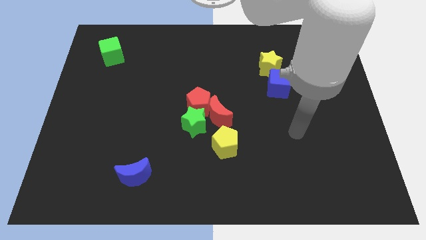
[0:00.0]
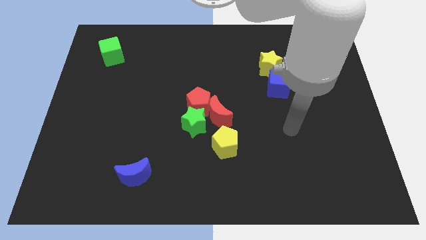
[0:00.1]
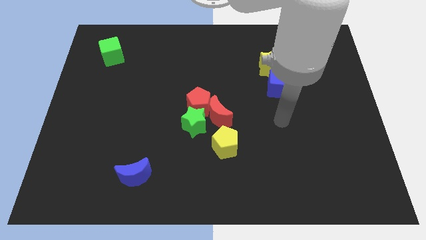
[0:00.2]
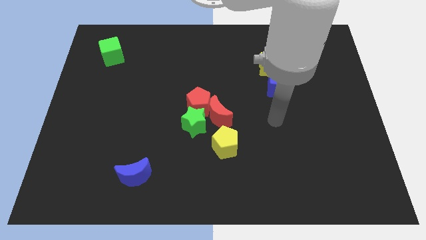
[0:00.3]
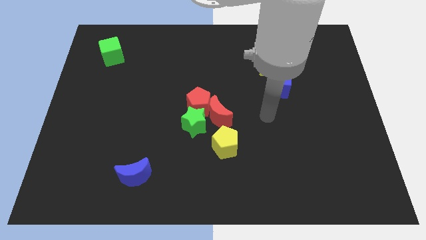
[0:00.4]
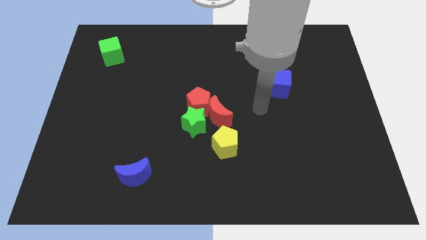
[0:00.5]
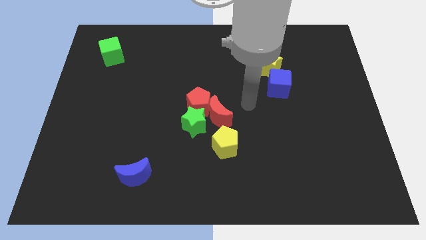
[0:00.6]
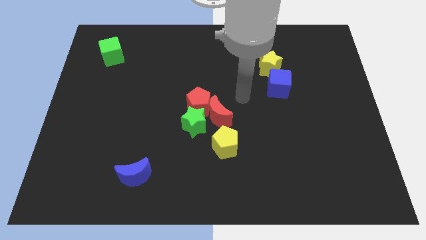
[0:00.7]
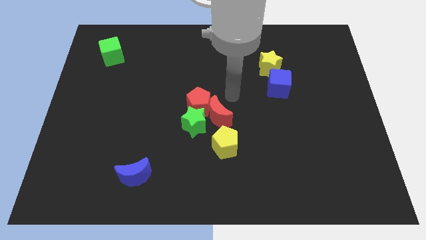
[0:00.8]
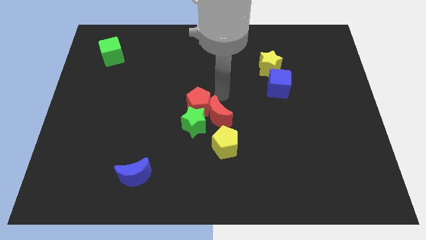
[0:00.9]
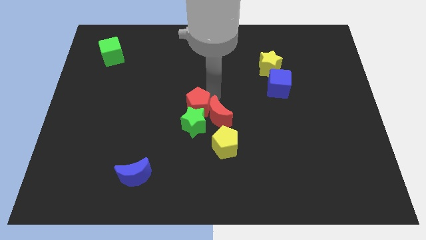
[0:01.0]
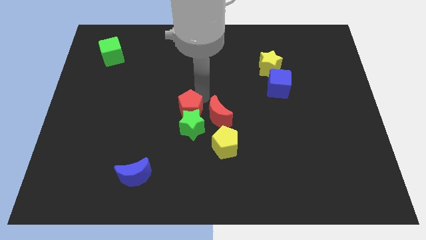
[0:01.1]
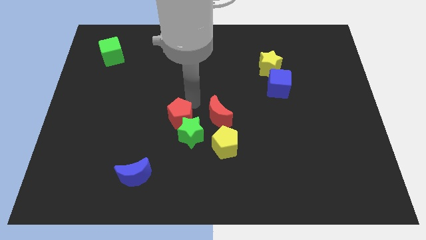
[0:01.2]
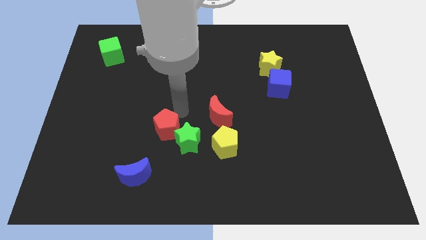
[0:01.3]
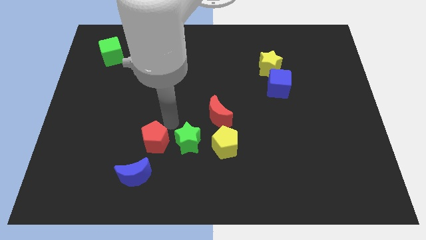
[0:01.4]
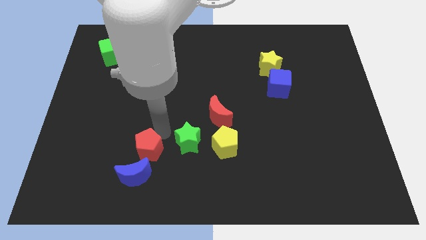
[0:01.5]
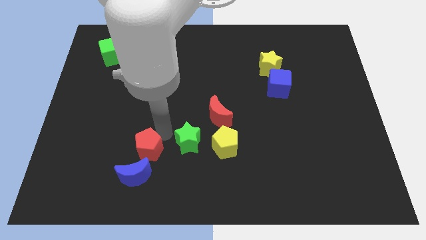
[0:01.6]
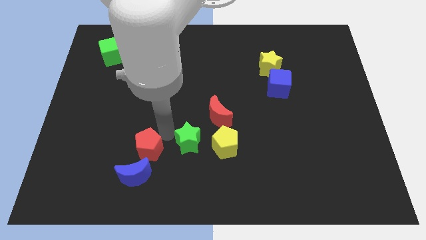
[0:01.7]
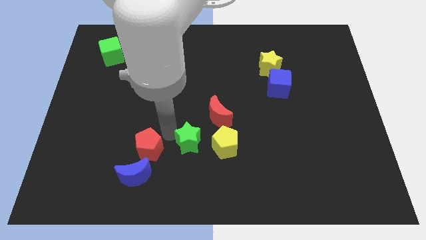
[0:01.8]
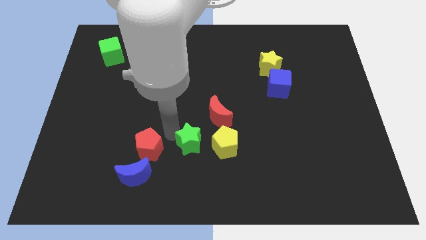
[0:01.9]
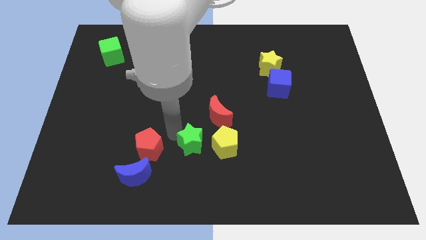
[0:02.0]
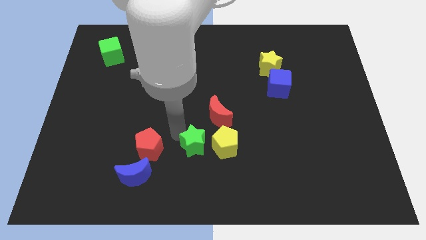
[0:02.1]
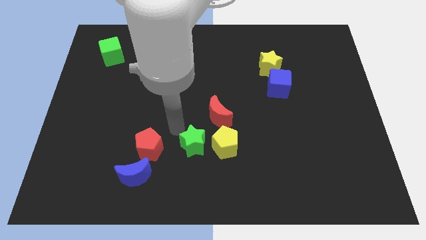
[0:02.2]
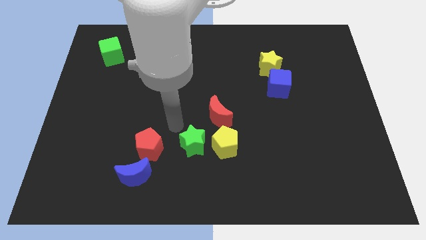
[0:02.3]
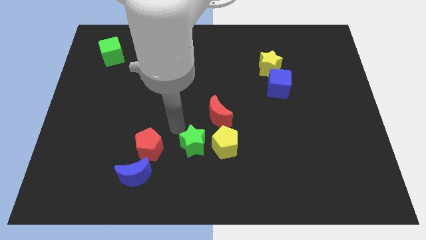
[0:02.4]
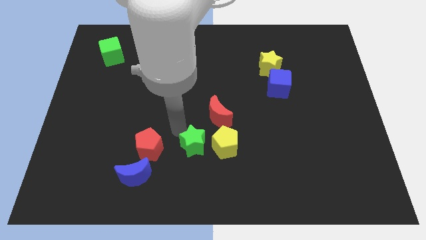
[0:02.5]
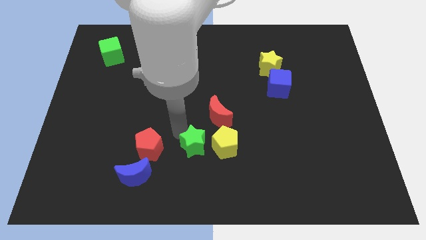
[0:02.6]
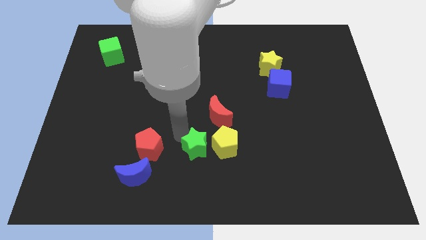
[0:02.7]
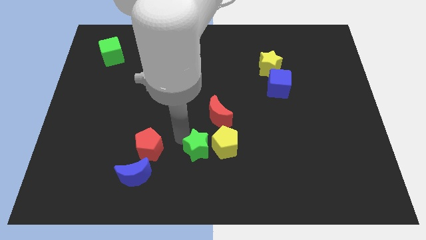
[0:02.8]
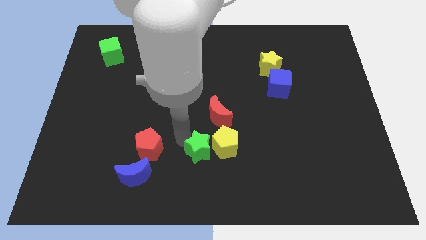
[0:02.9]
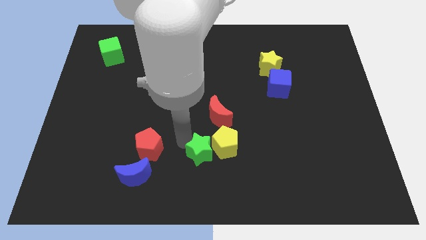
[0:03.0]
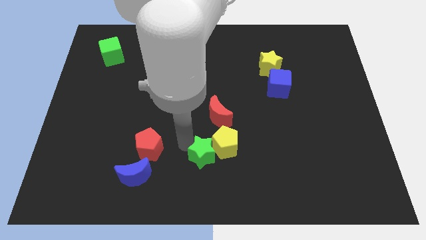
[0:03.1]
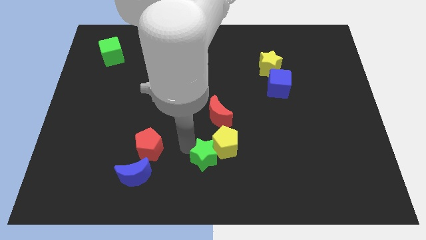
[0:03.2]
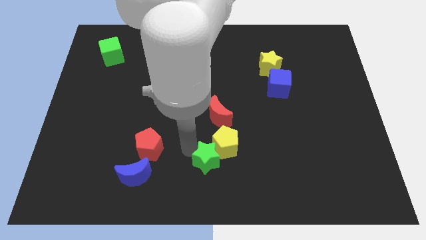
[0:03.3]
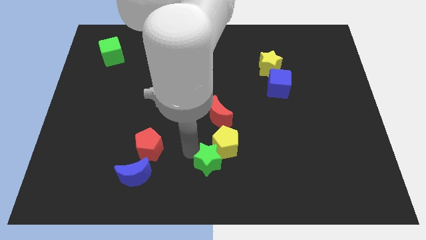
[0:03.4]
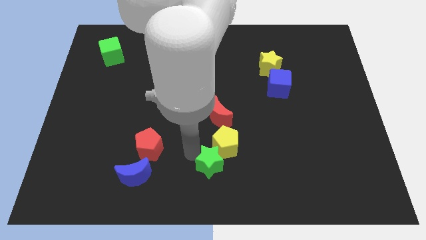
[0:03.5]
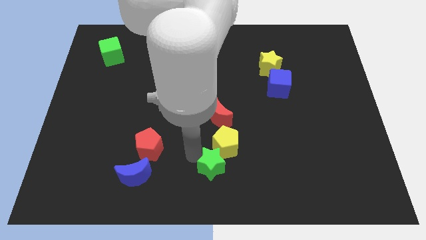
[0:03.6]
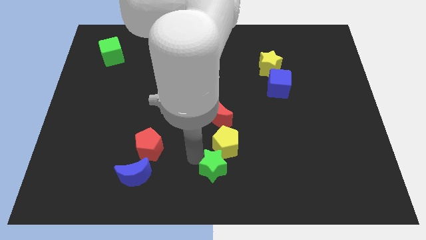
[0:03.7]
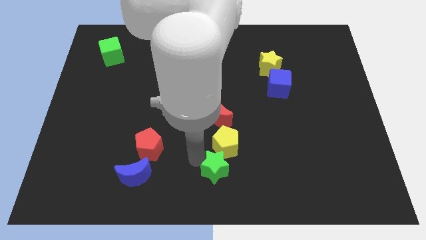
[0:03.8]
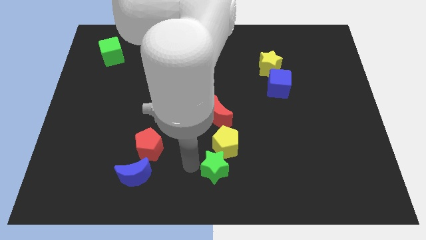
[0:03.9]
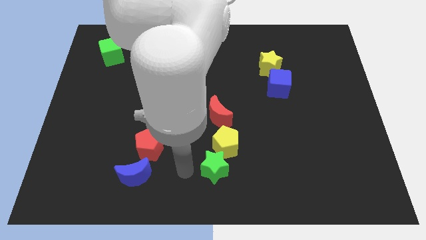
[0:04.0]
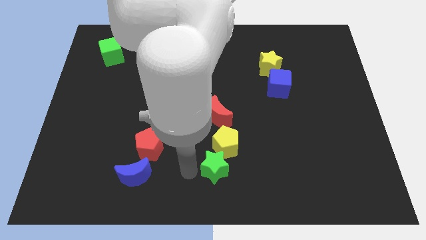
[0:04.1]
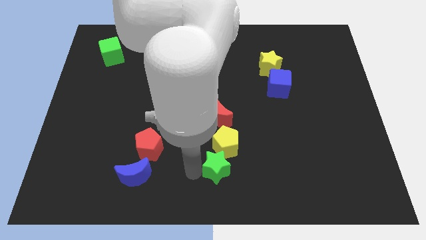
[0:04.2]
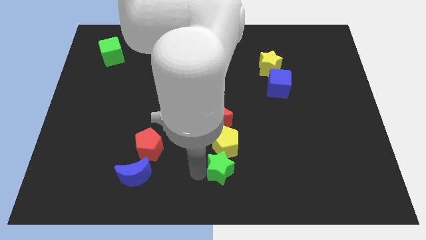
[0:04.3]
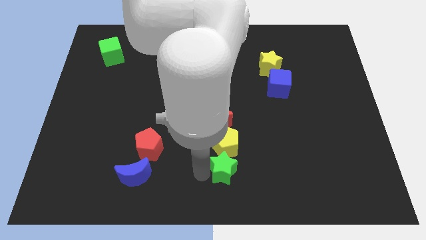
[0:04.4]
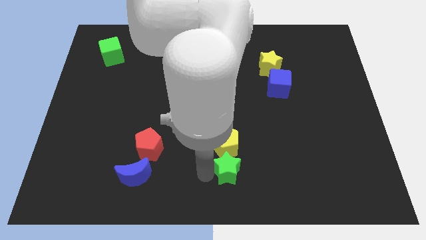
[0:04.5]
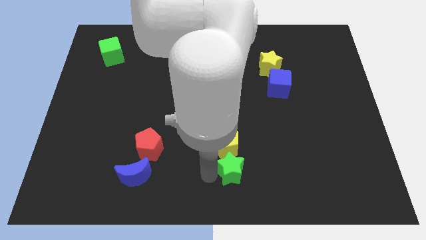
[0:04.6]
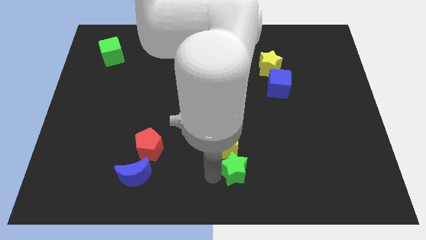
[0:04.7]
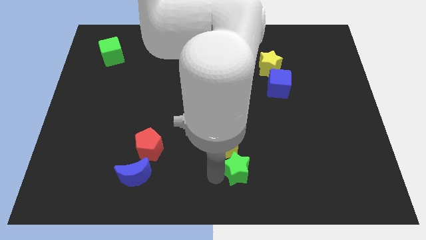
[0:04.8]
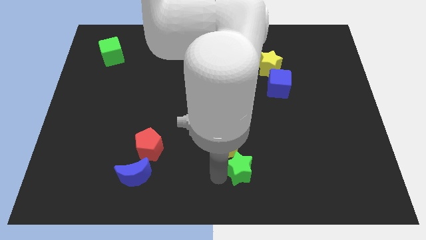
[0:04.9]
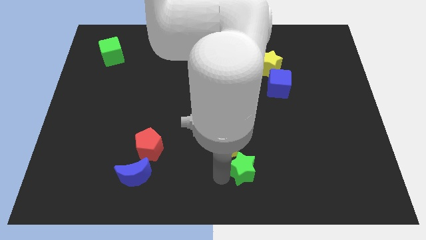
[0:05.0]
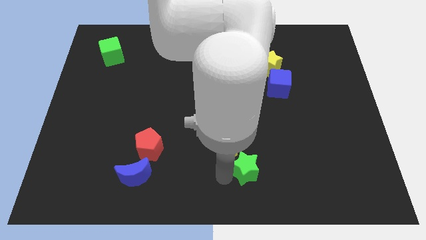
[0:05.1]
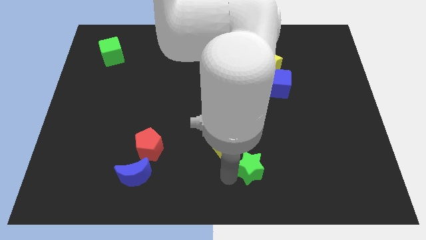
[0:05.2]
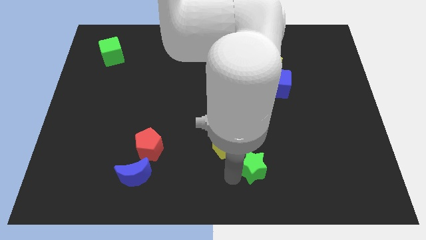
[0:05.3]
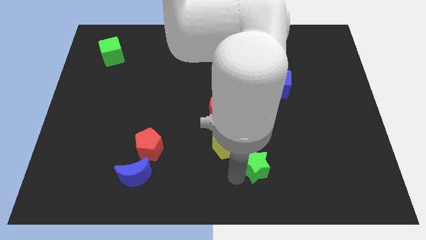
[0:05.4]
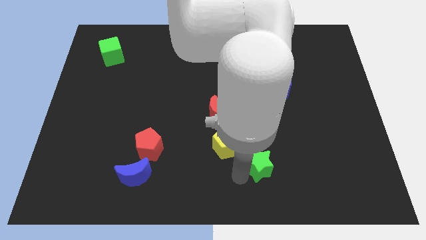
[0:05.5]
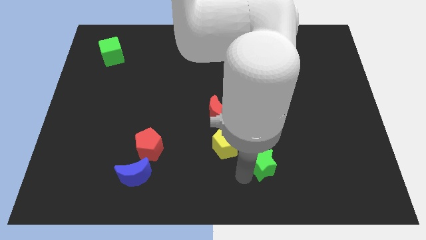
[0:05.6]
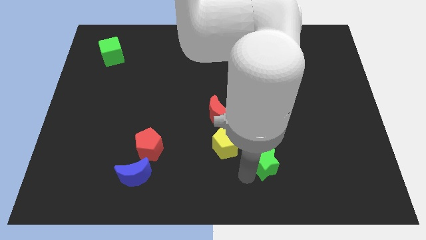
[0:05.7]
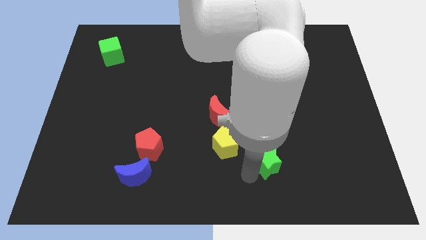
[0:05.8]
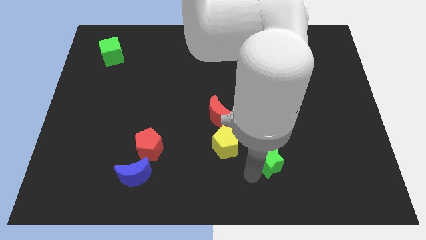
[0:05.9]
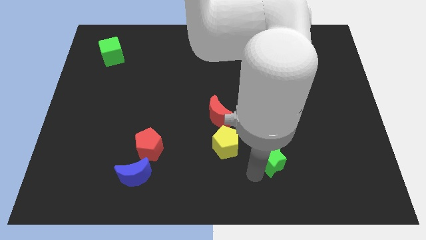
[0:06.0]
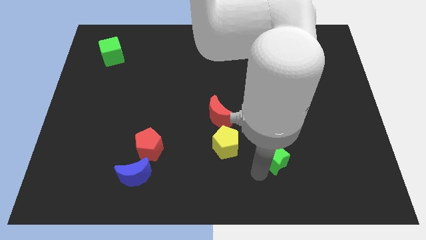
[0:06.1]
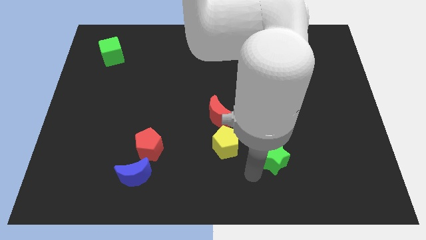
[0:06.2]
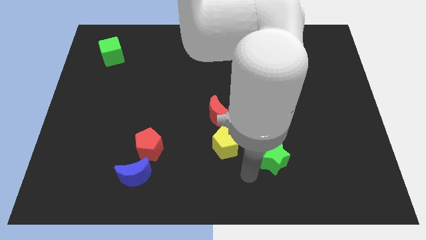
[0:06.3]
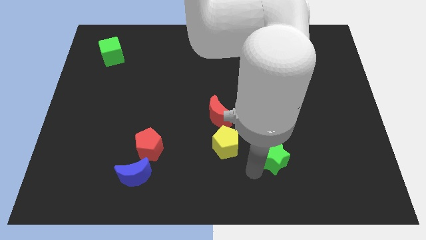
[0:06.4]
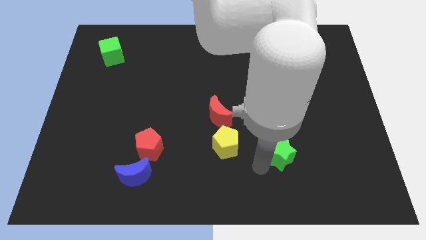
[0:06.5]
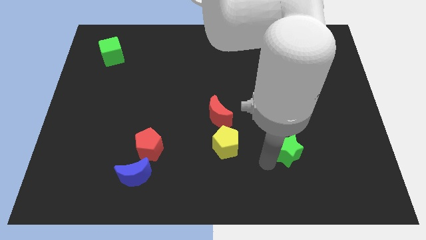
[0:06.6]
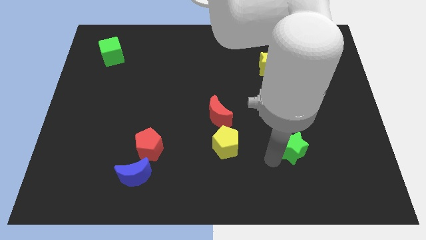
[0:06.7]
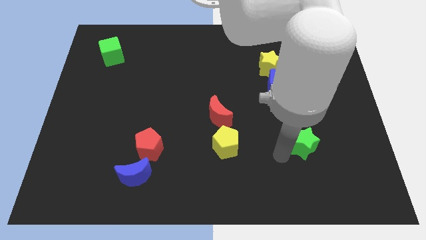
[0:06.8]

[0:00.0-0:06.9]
slide the green star to the right

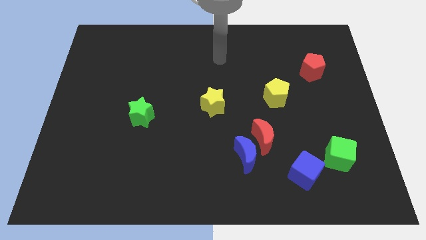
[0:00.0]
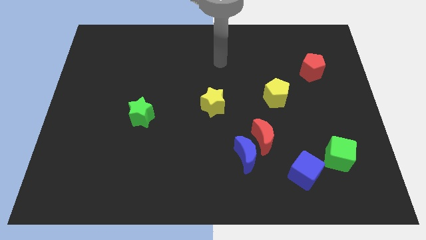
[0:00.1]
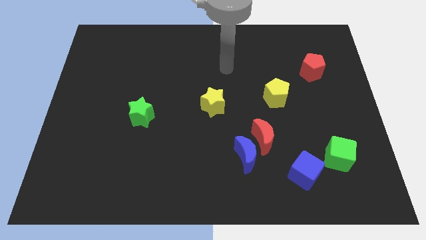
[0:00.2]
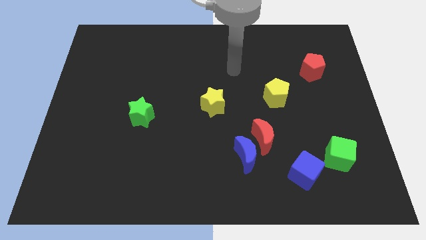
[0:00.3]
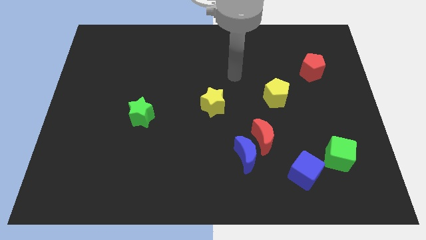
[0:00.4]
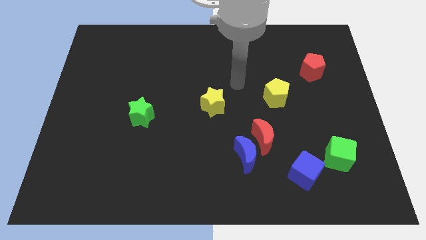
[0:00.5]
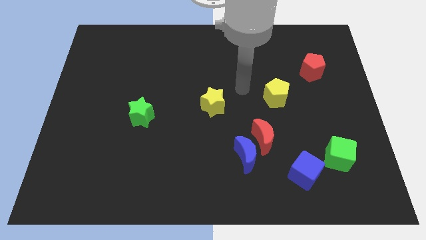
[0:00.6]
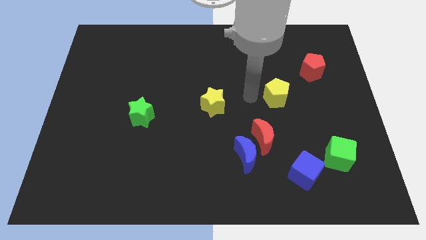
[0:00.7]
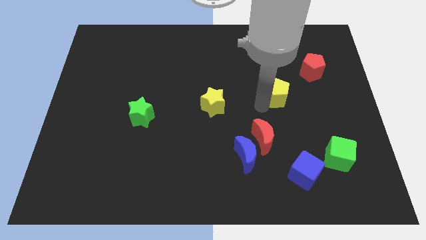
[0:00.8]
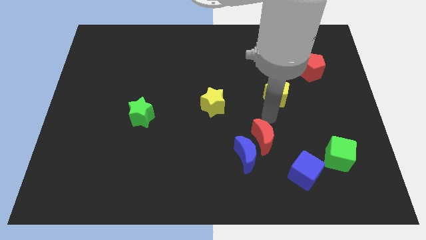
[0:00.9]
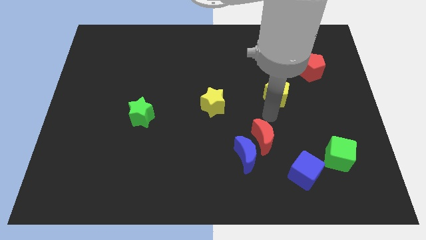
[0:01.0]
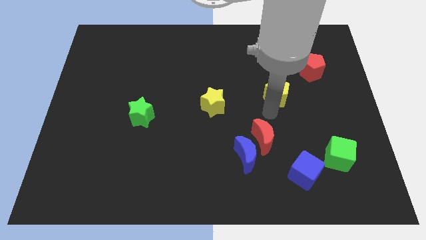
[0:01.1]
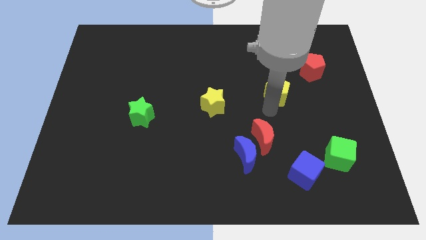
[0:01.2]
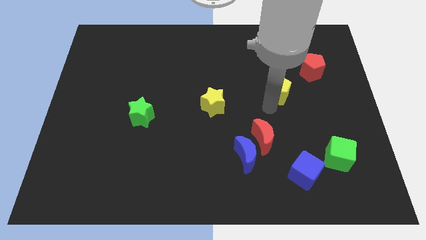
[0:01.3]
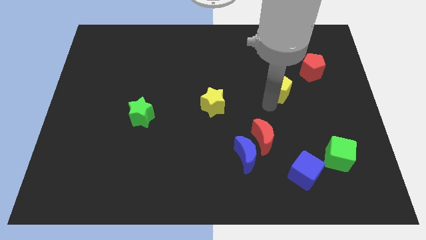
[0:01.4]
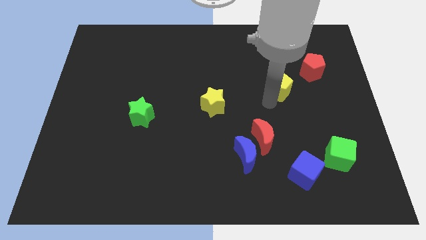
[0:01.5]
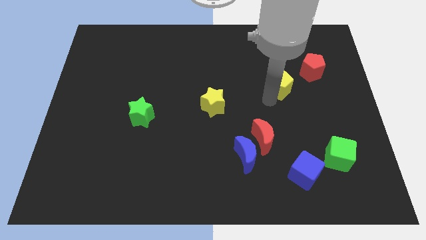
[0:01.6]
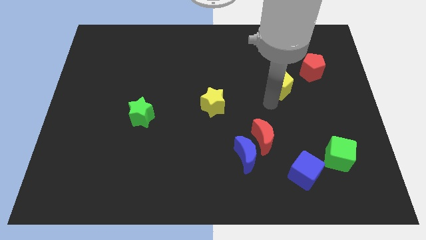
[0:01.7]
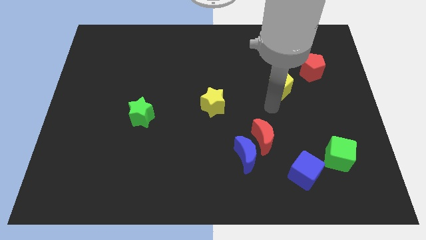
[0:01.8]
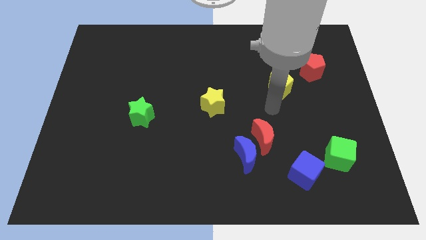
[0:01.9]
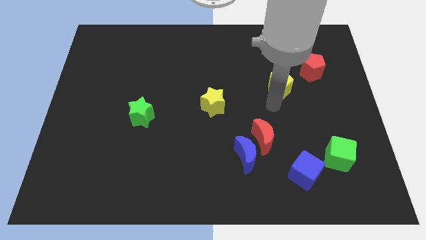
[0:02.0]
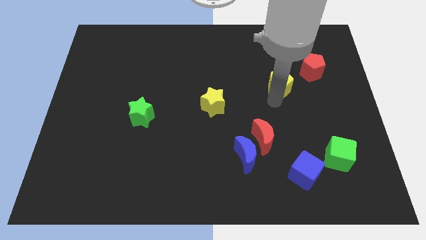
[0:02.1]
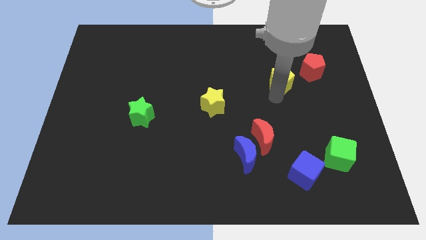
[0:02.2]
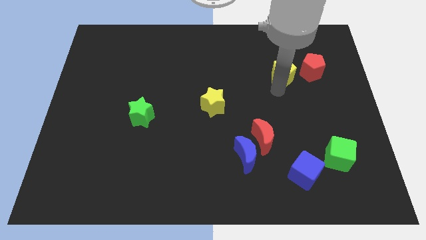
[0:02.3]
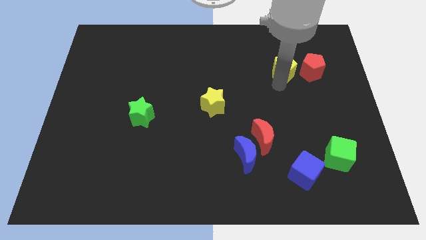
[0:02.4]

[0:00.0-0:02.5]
slightly slide the yellow pentagon upwards and right
